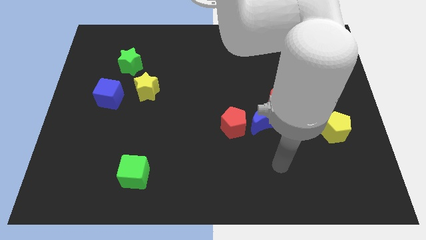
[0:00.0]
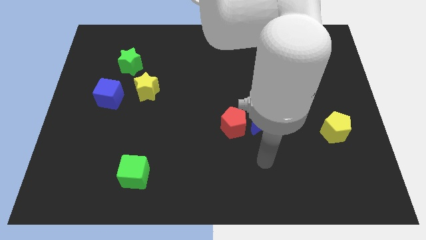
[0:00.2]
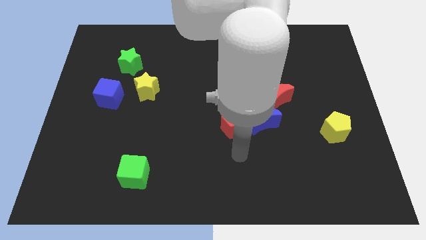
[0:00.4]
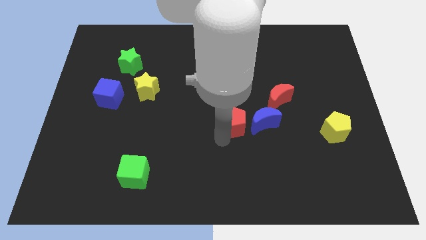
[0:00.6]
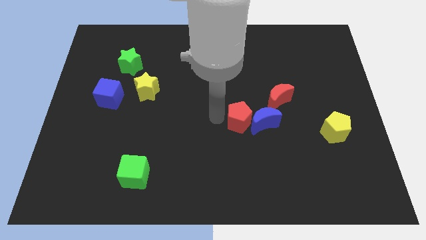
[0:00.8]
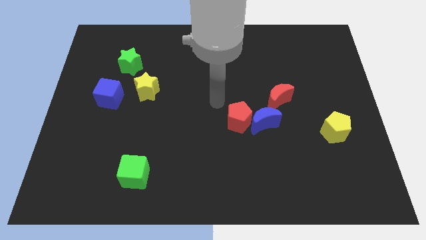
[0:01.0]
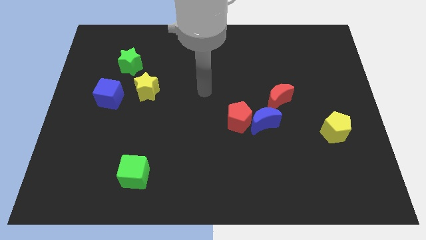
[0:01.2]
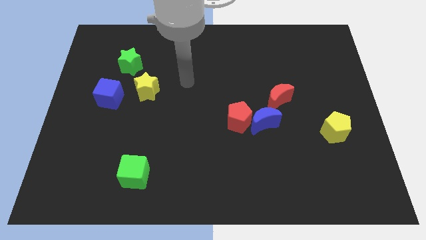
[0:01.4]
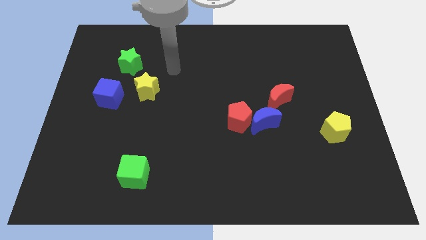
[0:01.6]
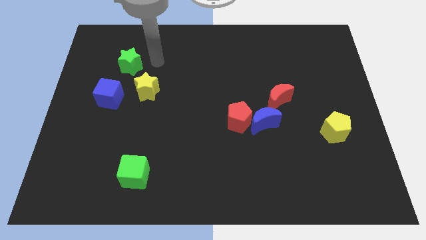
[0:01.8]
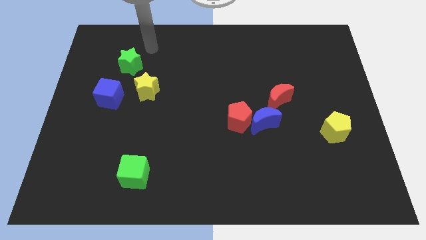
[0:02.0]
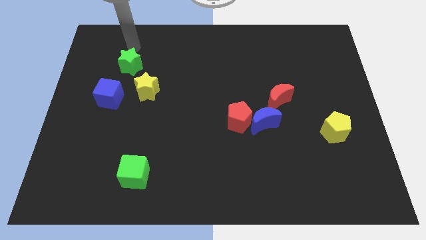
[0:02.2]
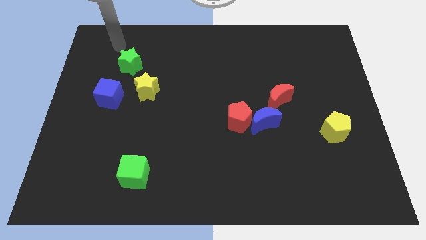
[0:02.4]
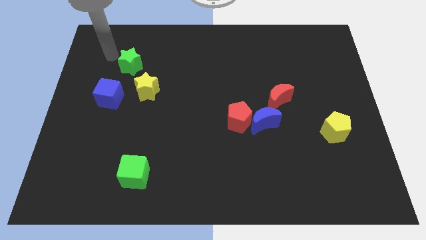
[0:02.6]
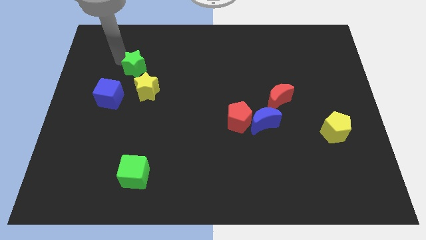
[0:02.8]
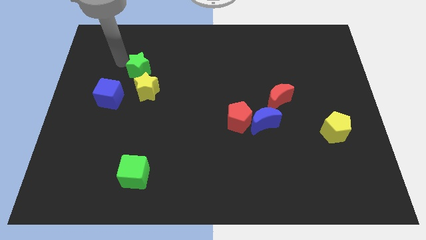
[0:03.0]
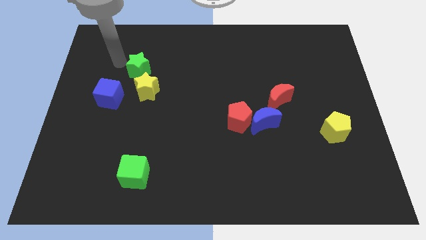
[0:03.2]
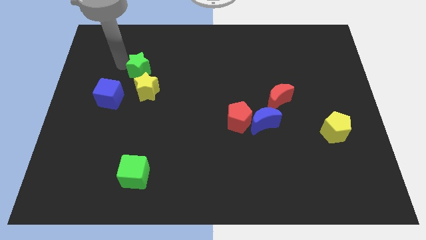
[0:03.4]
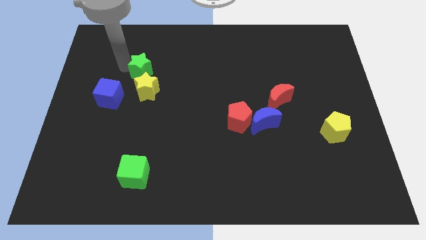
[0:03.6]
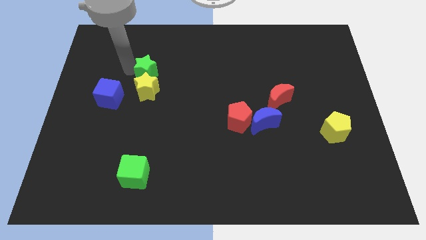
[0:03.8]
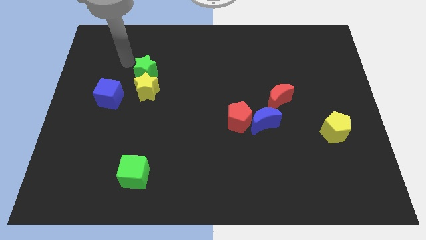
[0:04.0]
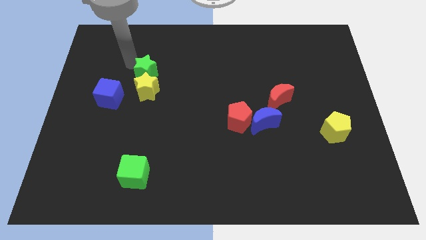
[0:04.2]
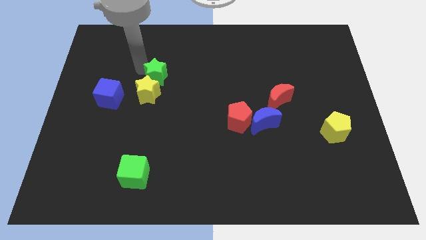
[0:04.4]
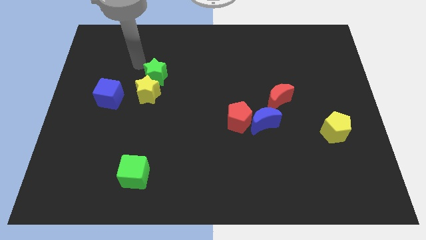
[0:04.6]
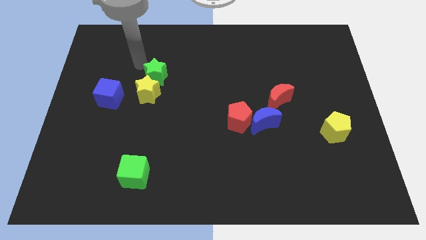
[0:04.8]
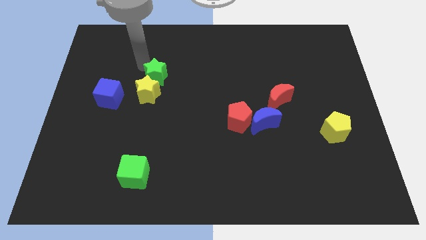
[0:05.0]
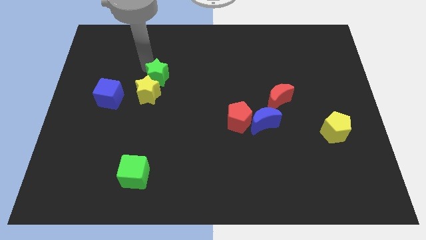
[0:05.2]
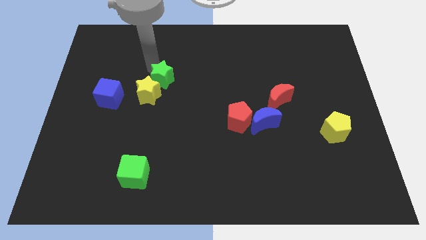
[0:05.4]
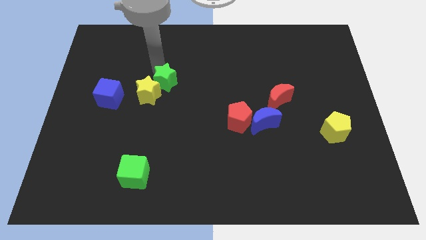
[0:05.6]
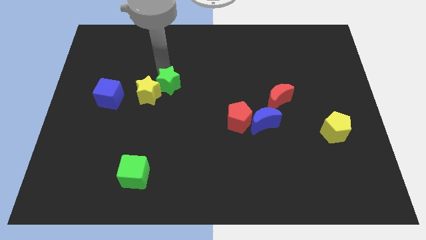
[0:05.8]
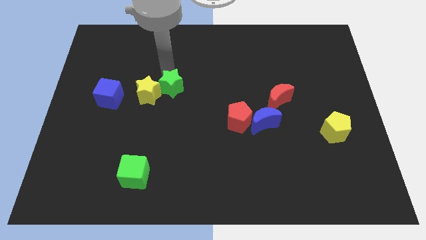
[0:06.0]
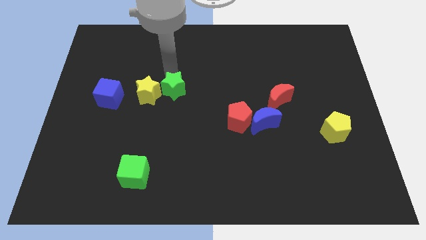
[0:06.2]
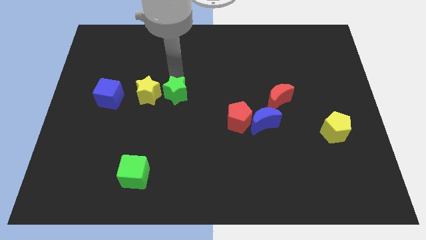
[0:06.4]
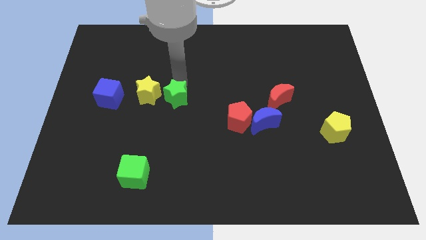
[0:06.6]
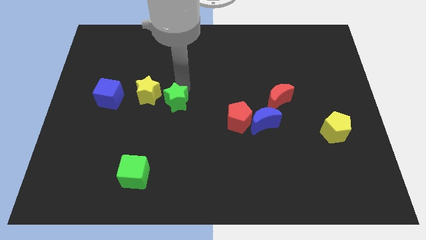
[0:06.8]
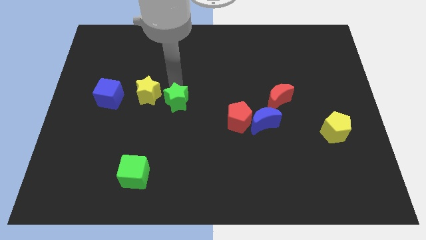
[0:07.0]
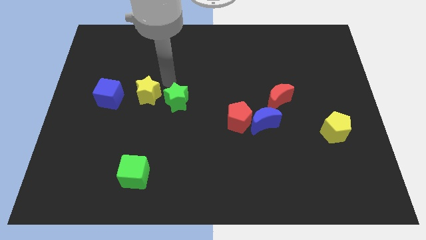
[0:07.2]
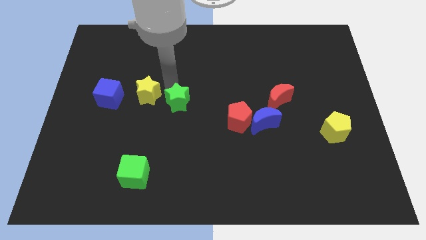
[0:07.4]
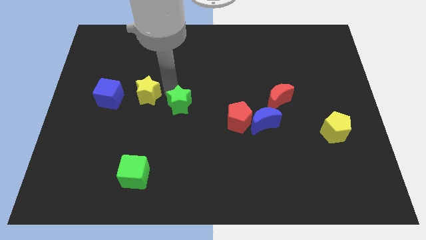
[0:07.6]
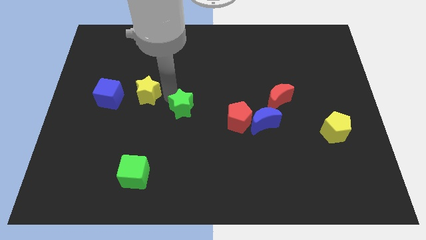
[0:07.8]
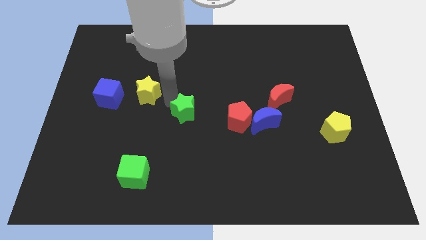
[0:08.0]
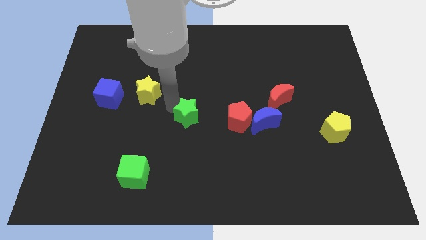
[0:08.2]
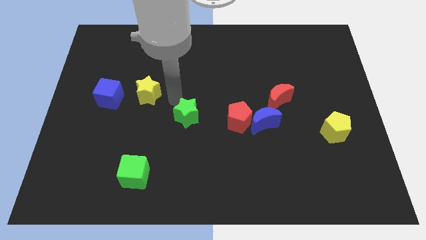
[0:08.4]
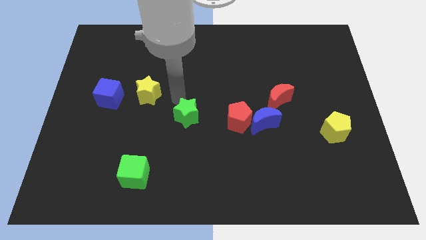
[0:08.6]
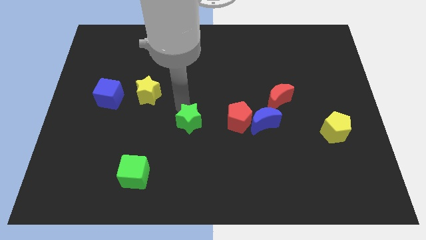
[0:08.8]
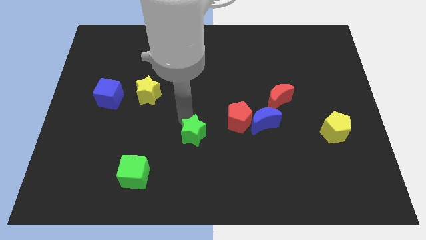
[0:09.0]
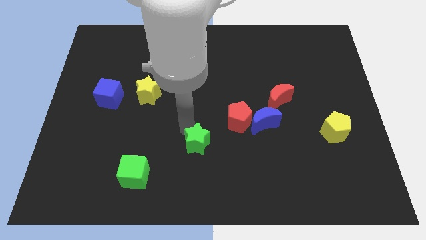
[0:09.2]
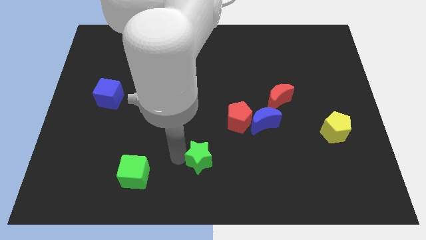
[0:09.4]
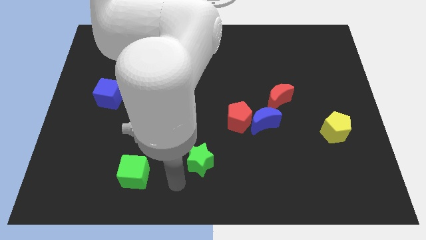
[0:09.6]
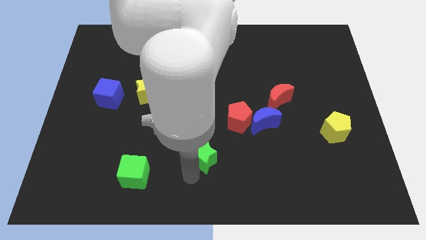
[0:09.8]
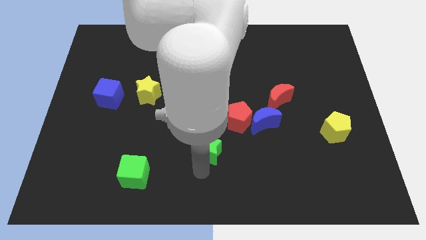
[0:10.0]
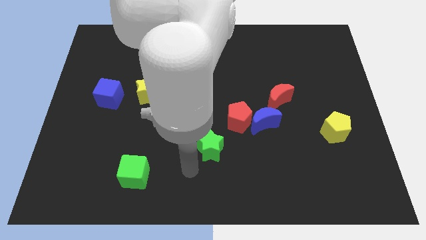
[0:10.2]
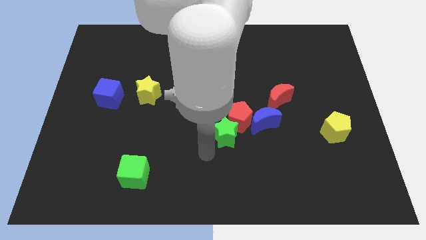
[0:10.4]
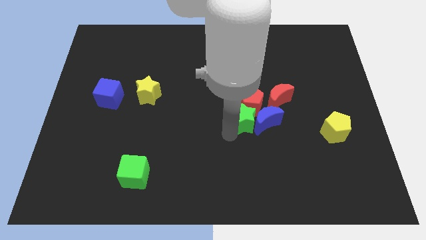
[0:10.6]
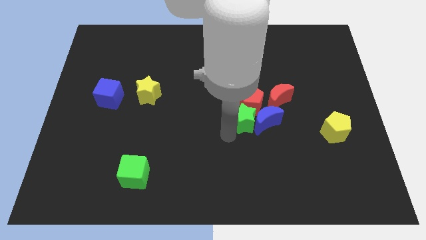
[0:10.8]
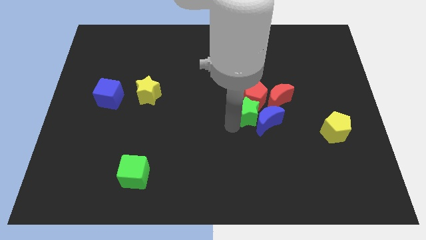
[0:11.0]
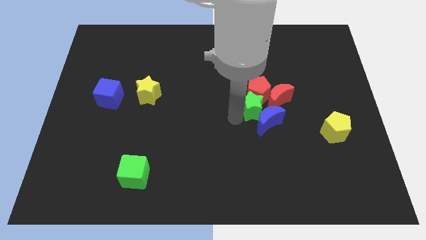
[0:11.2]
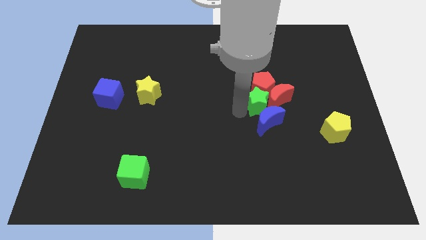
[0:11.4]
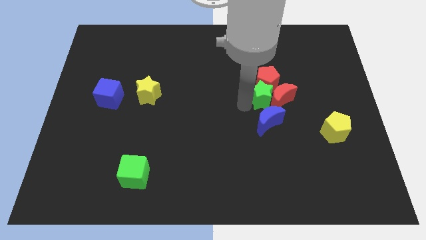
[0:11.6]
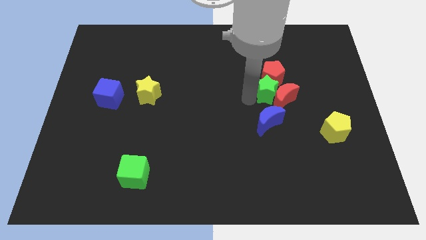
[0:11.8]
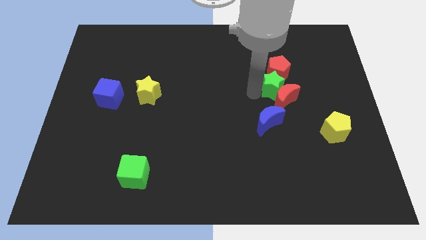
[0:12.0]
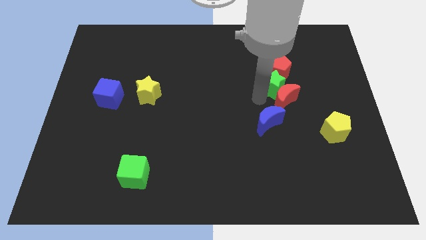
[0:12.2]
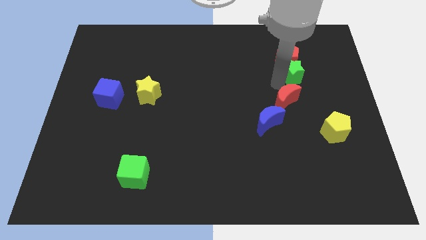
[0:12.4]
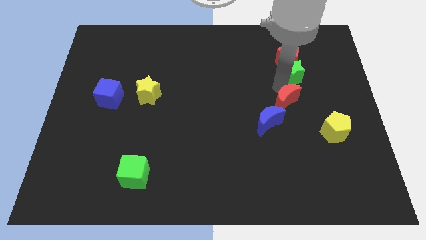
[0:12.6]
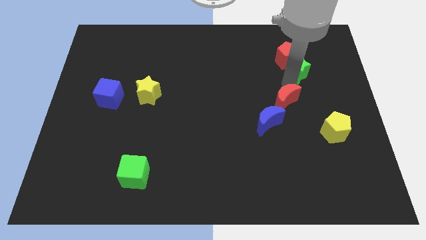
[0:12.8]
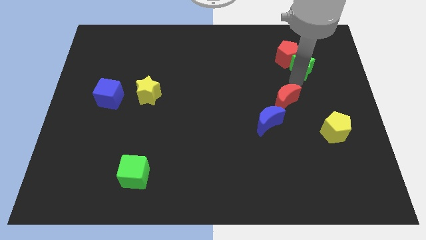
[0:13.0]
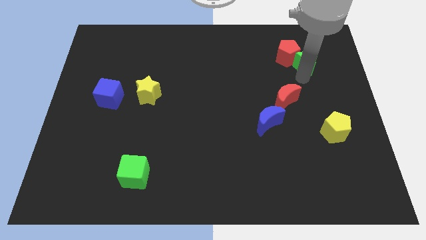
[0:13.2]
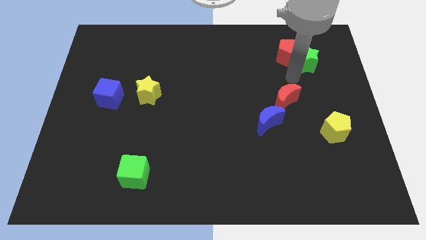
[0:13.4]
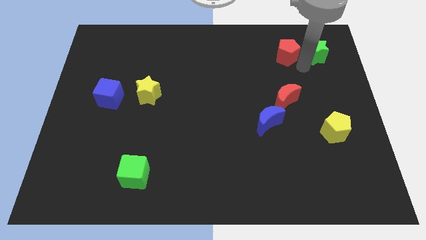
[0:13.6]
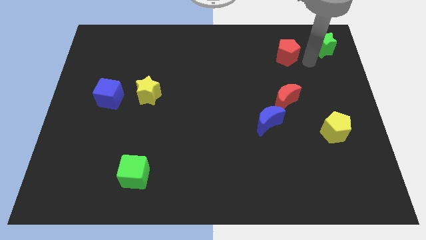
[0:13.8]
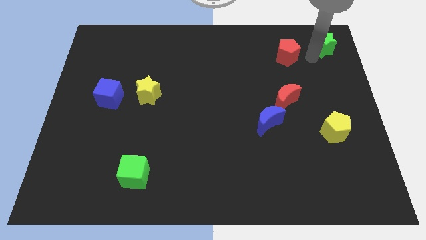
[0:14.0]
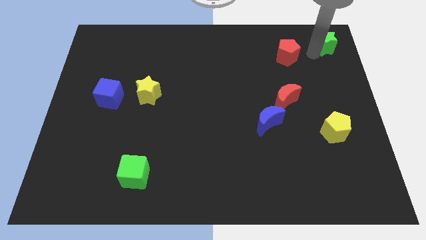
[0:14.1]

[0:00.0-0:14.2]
put the green star to the top right
